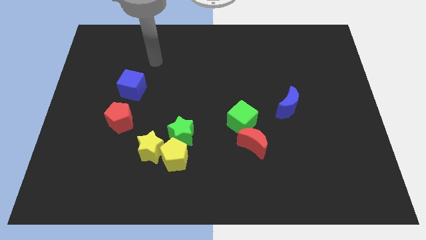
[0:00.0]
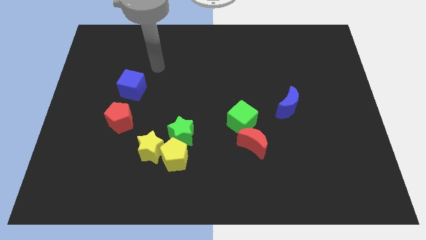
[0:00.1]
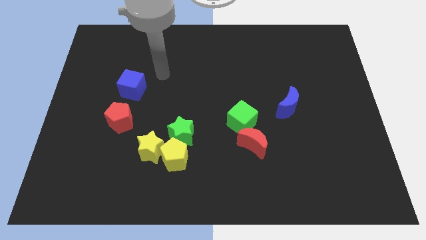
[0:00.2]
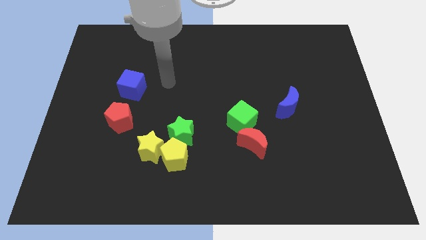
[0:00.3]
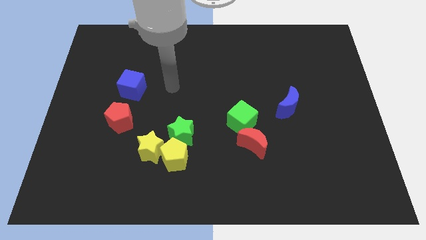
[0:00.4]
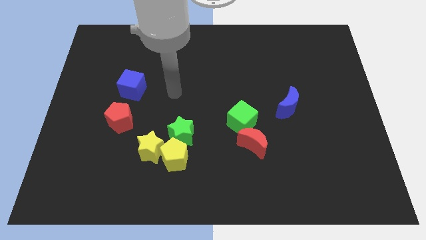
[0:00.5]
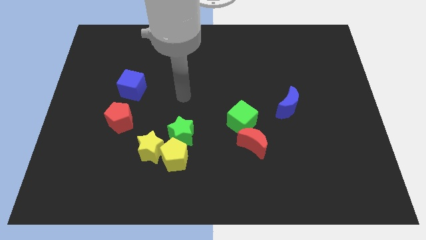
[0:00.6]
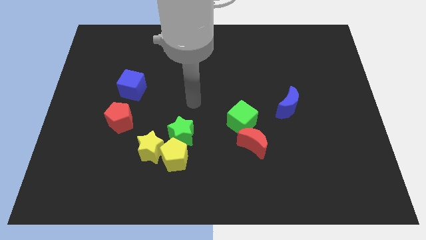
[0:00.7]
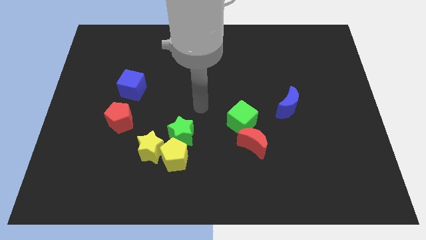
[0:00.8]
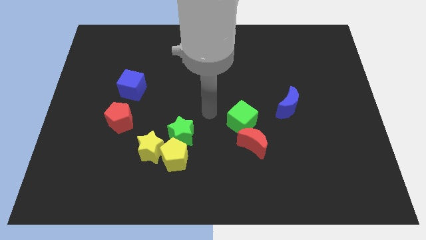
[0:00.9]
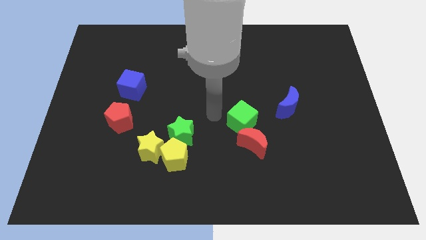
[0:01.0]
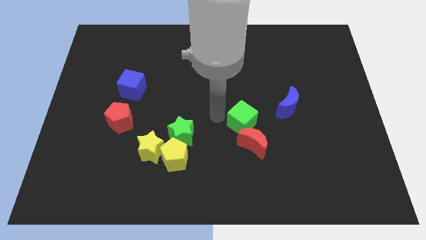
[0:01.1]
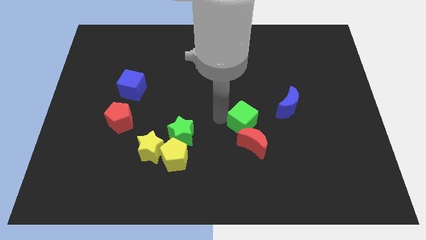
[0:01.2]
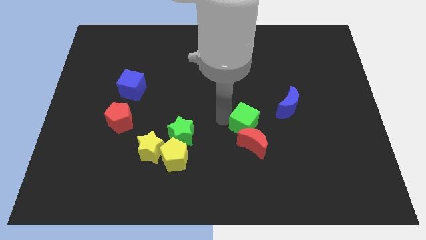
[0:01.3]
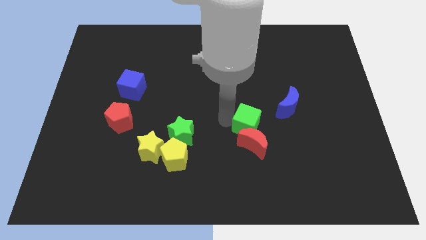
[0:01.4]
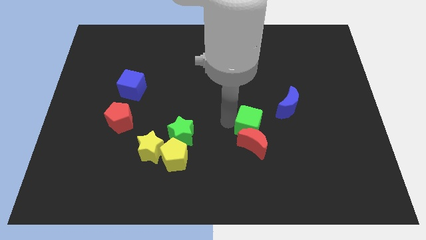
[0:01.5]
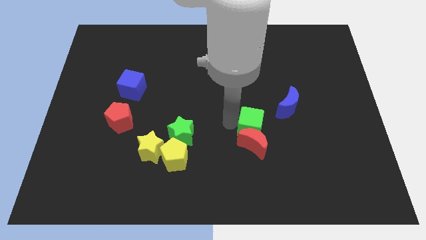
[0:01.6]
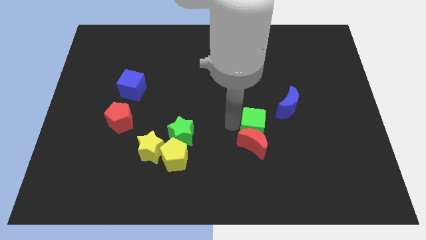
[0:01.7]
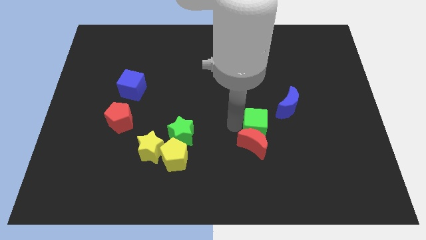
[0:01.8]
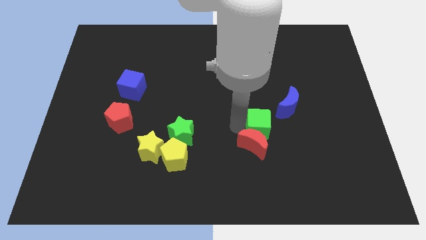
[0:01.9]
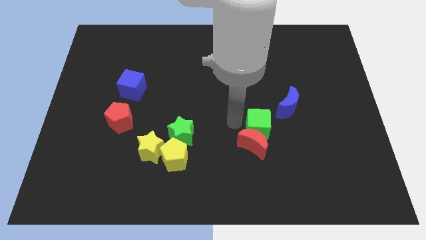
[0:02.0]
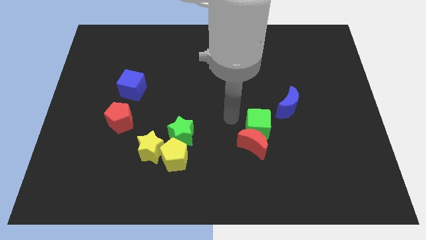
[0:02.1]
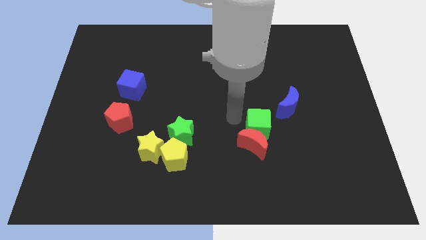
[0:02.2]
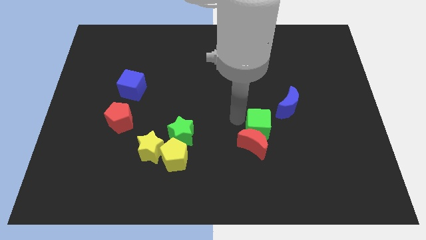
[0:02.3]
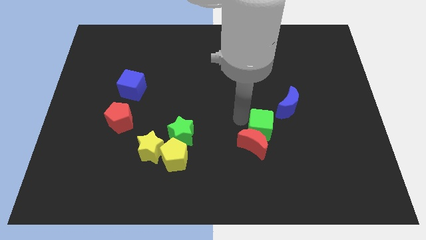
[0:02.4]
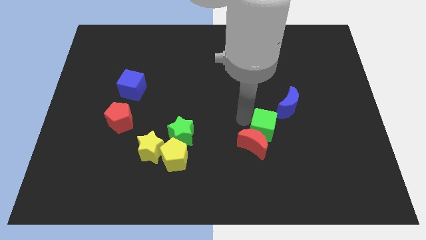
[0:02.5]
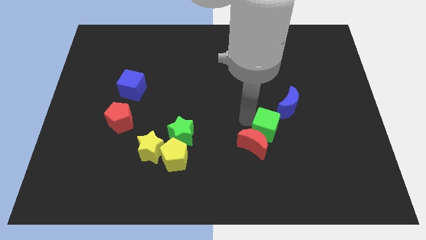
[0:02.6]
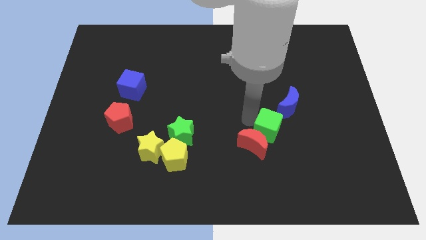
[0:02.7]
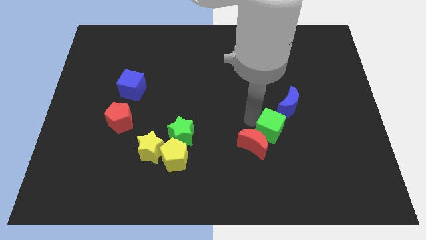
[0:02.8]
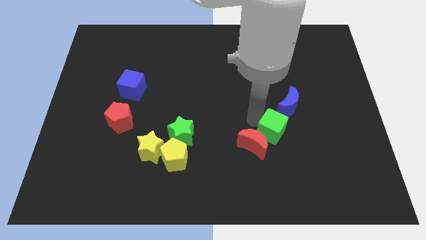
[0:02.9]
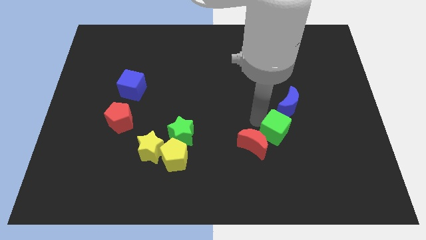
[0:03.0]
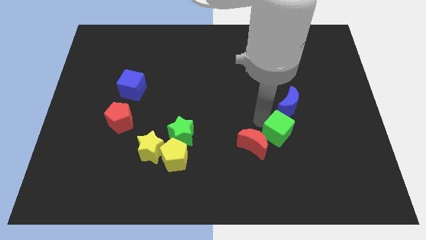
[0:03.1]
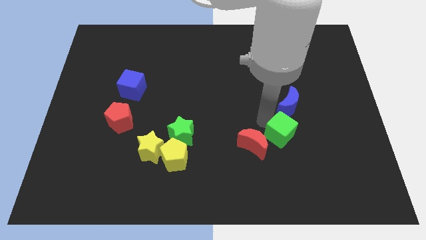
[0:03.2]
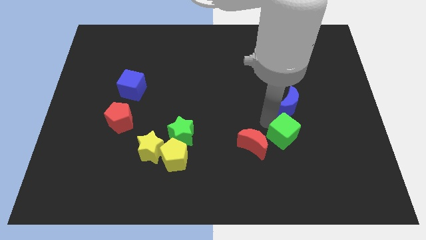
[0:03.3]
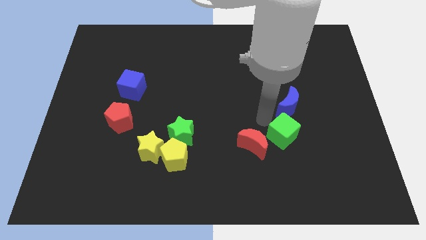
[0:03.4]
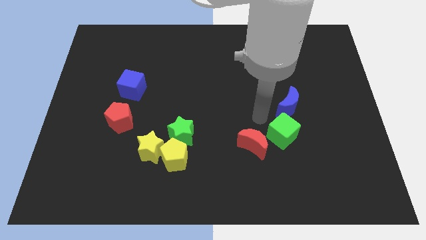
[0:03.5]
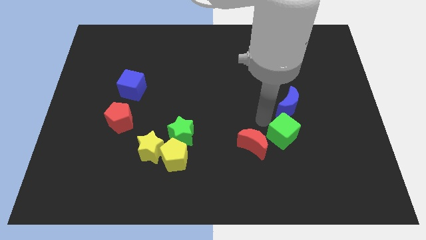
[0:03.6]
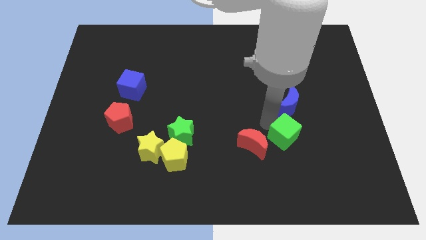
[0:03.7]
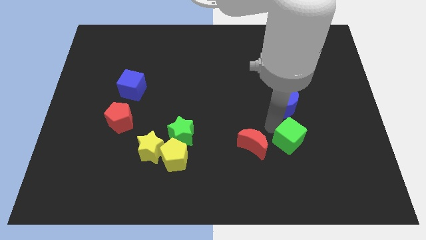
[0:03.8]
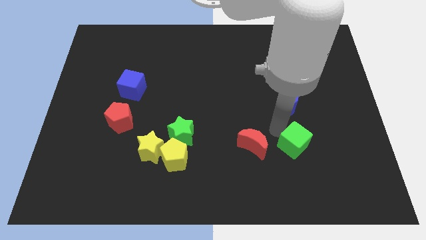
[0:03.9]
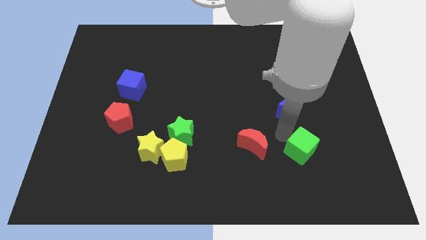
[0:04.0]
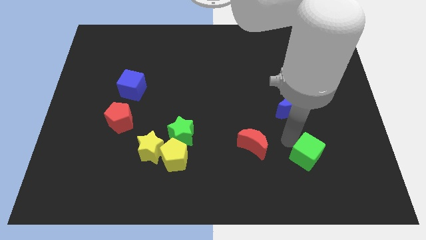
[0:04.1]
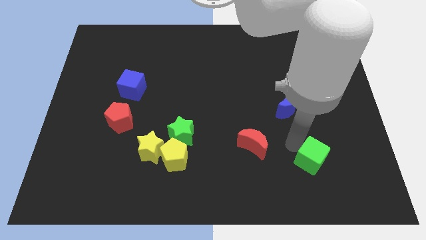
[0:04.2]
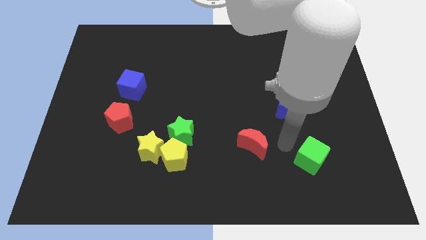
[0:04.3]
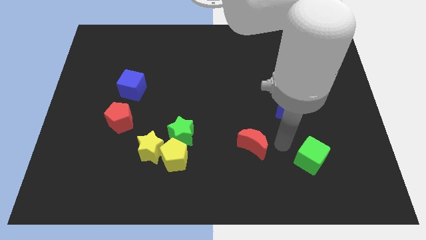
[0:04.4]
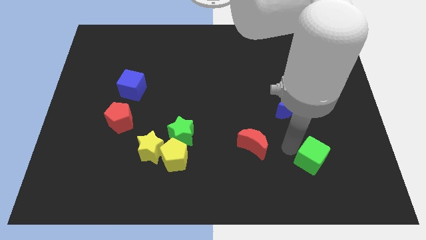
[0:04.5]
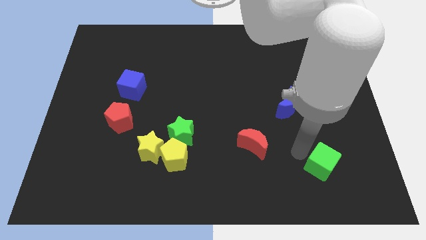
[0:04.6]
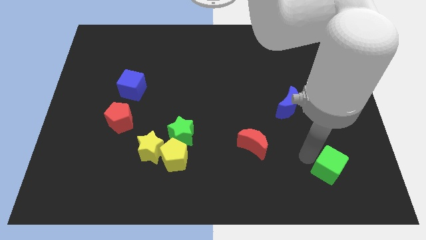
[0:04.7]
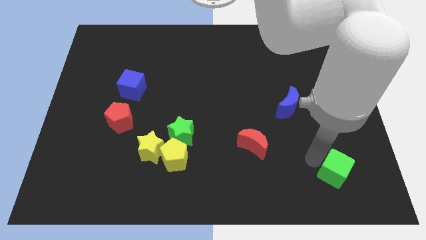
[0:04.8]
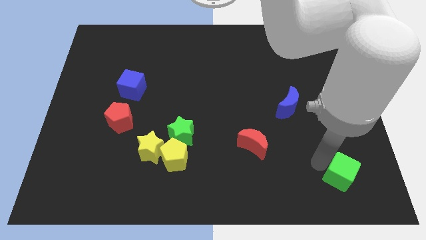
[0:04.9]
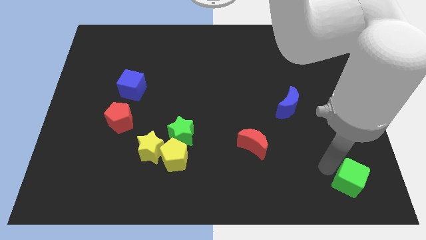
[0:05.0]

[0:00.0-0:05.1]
push the green cube to the bottom right

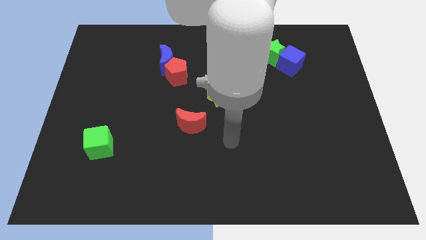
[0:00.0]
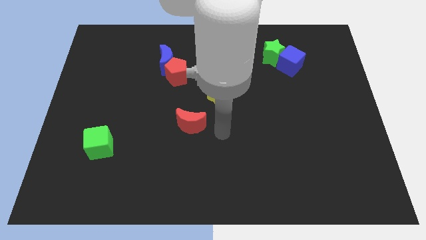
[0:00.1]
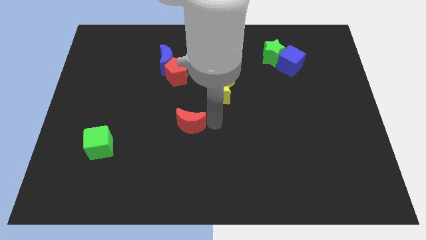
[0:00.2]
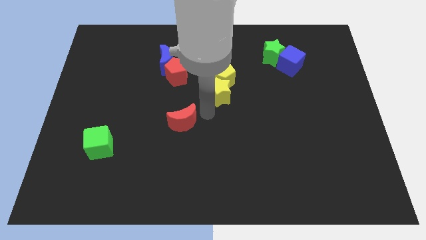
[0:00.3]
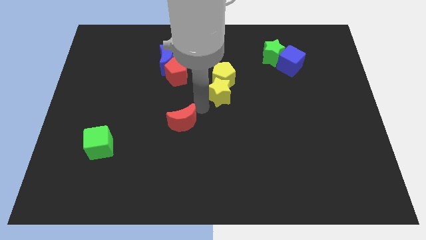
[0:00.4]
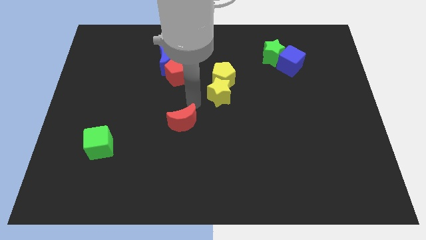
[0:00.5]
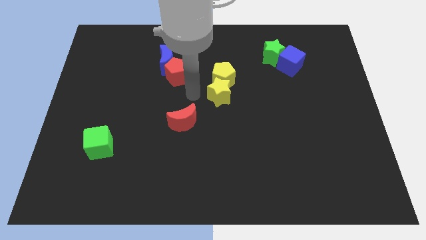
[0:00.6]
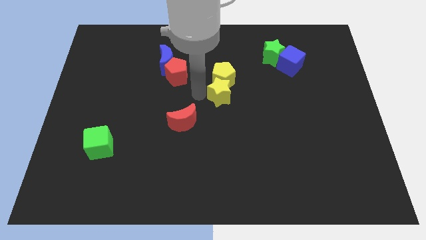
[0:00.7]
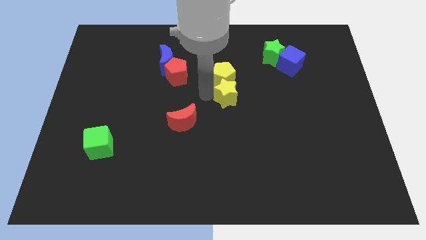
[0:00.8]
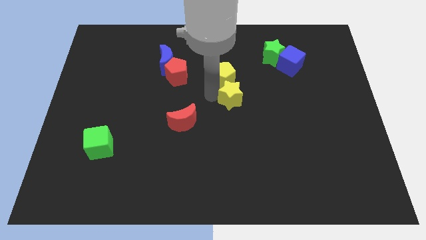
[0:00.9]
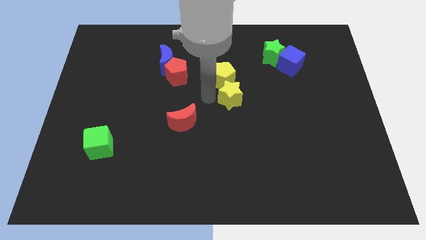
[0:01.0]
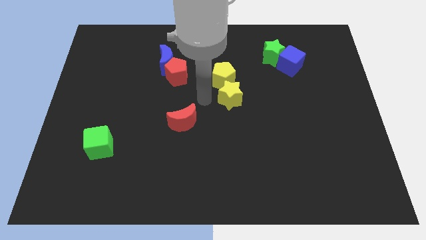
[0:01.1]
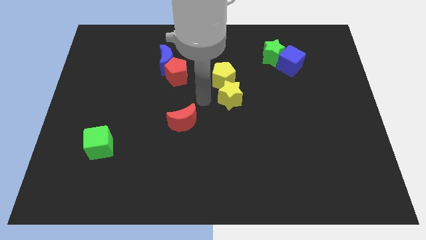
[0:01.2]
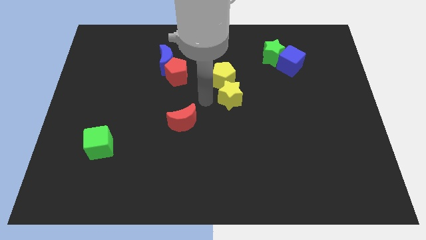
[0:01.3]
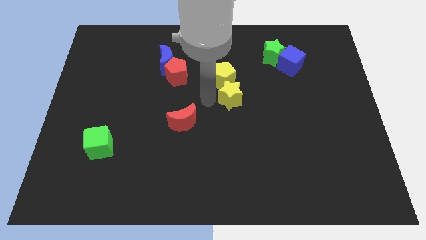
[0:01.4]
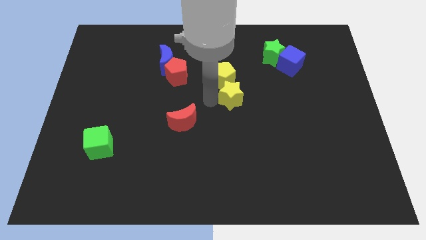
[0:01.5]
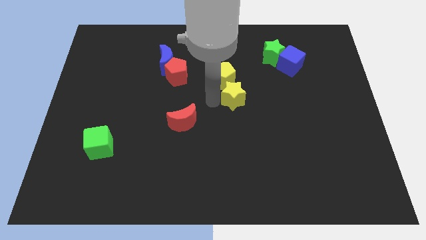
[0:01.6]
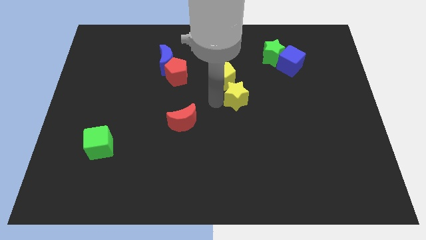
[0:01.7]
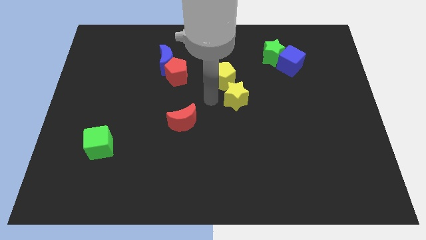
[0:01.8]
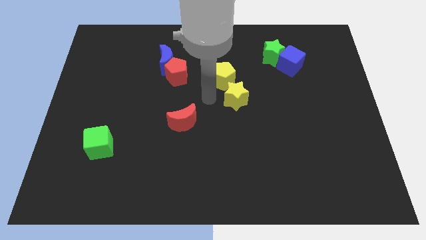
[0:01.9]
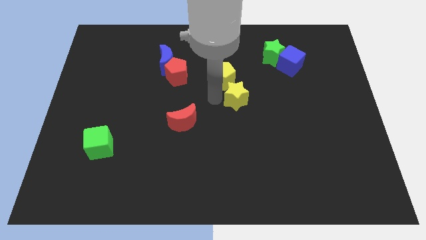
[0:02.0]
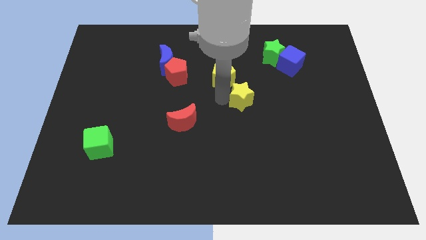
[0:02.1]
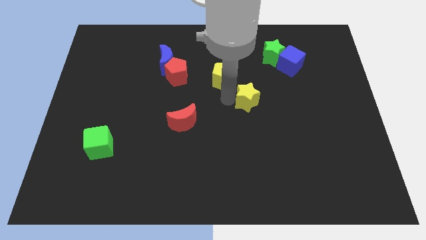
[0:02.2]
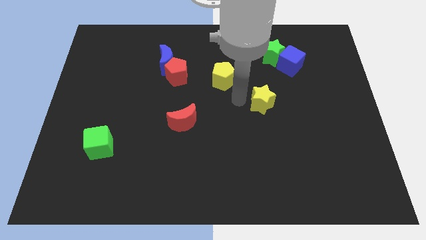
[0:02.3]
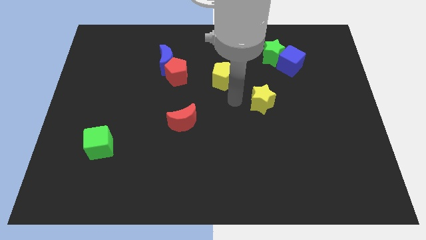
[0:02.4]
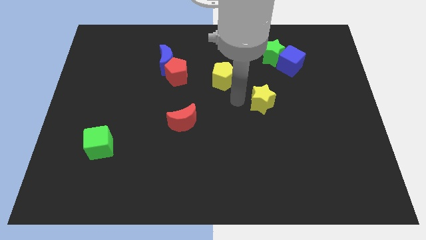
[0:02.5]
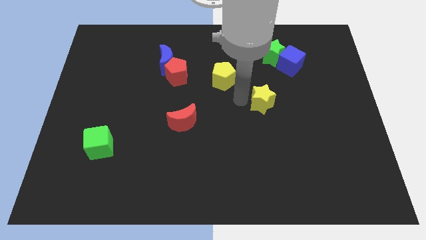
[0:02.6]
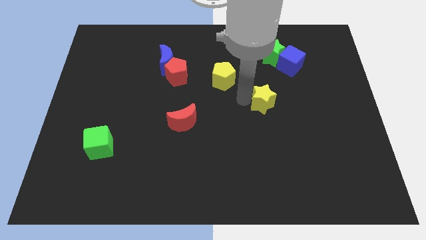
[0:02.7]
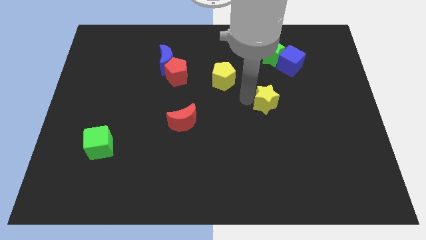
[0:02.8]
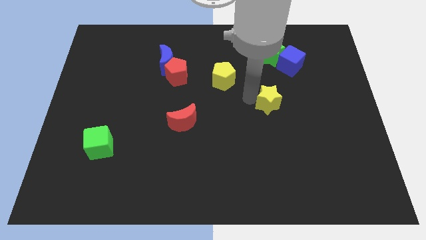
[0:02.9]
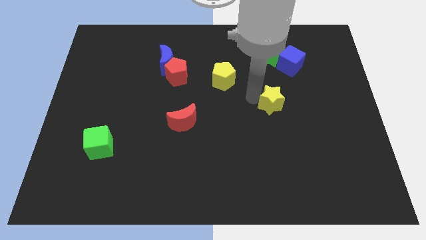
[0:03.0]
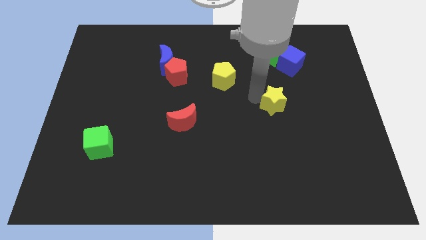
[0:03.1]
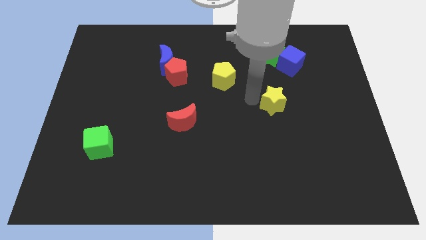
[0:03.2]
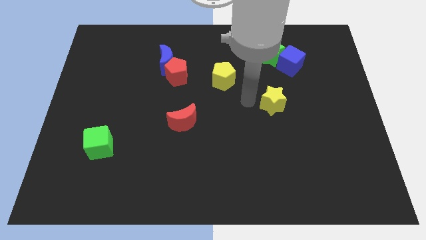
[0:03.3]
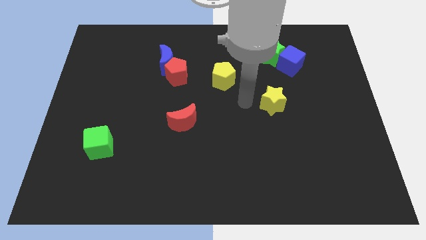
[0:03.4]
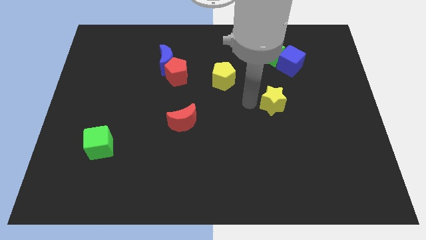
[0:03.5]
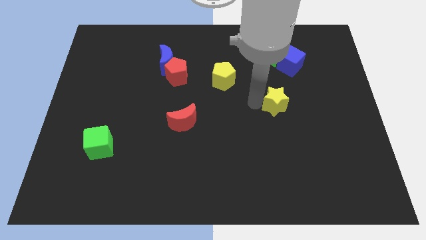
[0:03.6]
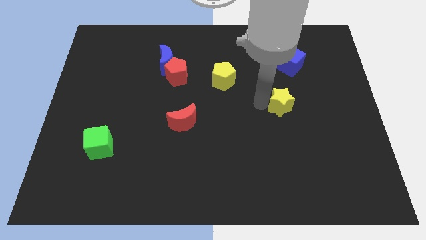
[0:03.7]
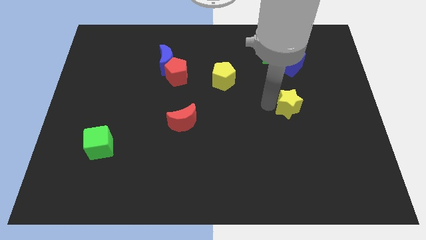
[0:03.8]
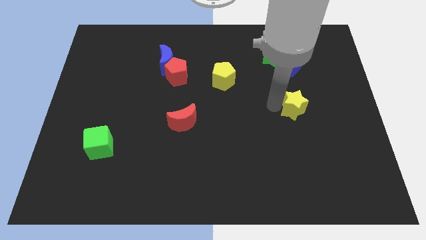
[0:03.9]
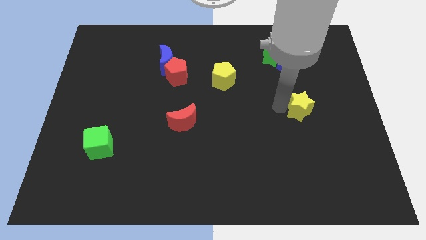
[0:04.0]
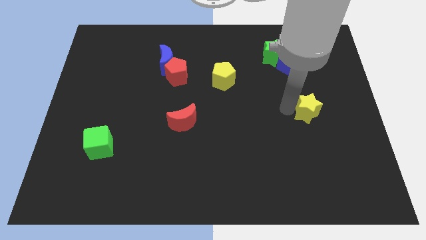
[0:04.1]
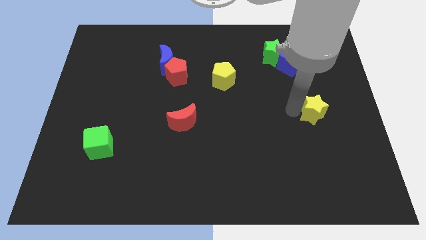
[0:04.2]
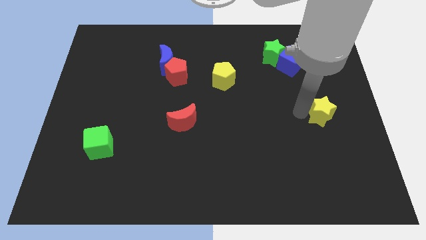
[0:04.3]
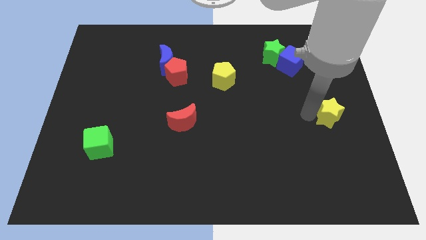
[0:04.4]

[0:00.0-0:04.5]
move the yellow star to the right side
